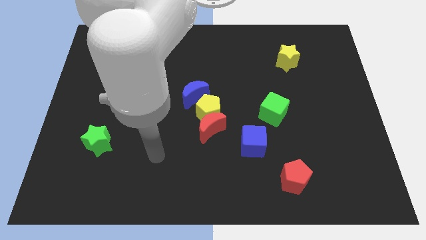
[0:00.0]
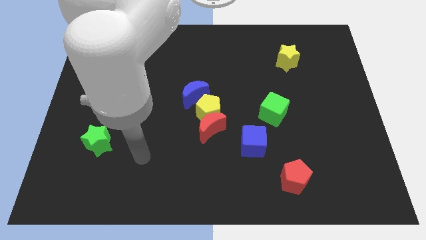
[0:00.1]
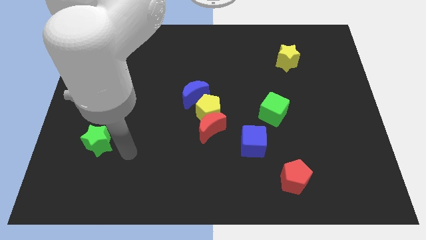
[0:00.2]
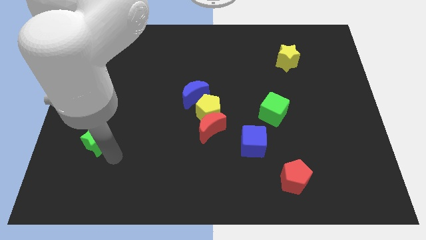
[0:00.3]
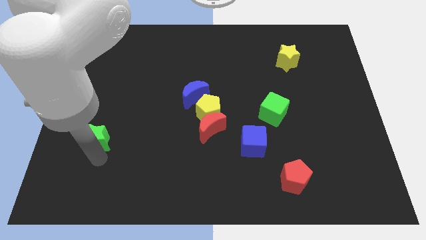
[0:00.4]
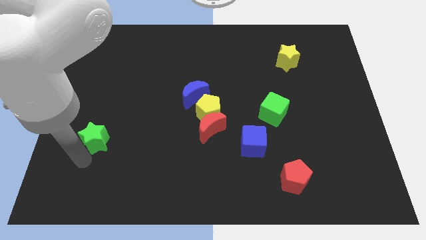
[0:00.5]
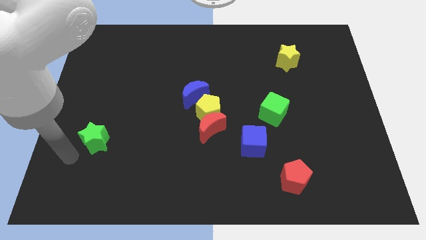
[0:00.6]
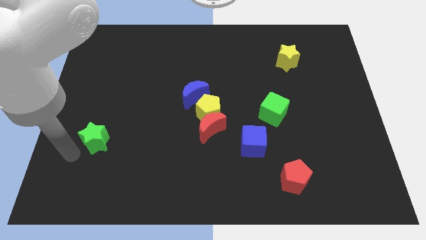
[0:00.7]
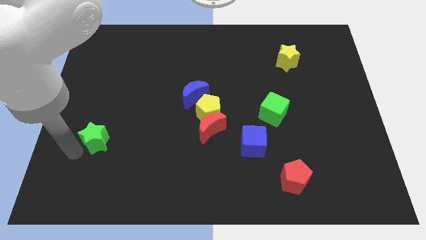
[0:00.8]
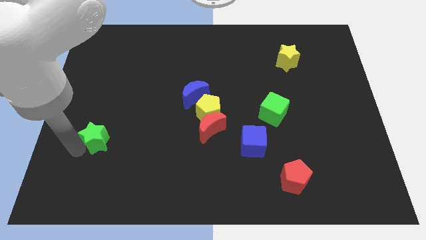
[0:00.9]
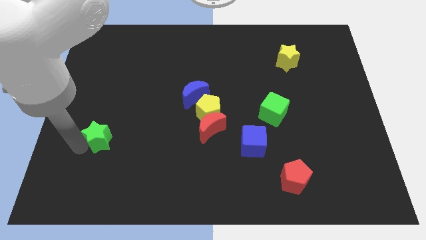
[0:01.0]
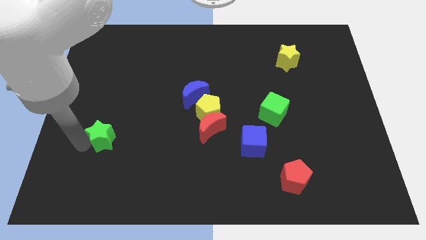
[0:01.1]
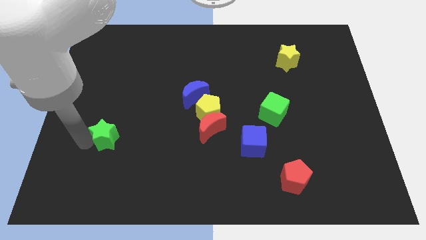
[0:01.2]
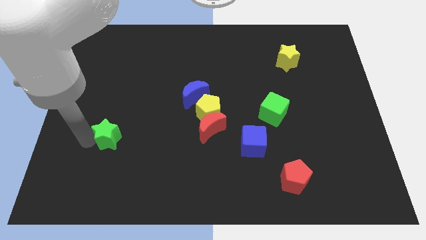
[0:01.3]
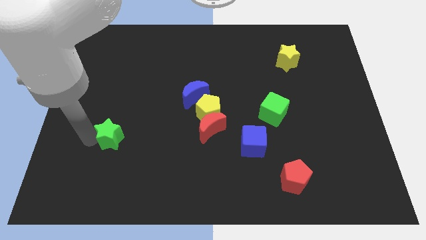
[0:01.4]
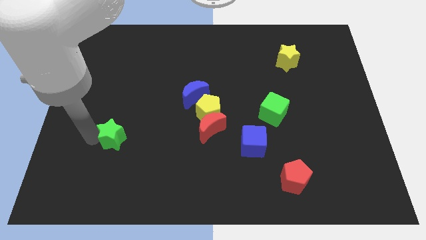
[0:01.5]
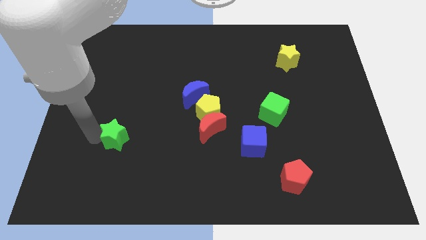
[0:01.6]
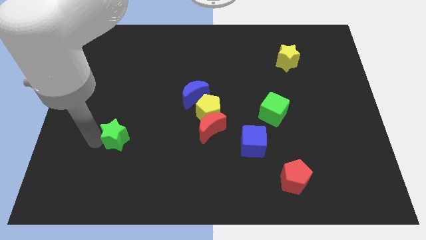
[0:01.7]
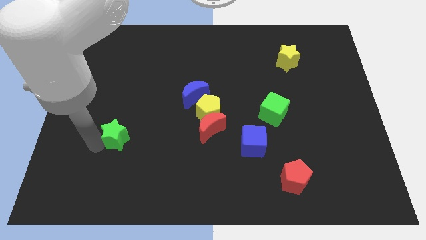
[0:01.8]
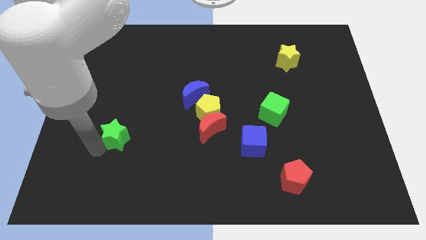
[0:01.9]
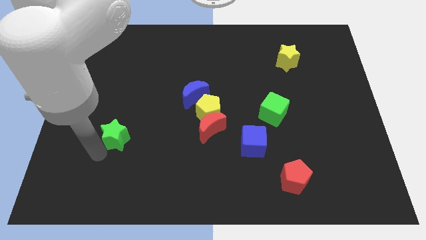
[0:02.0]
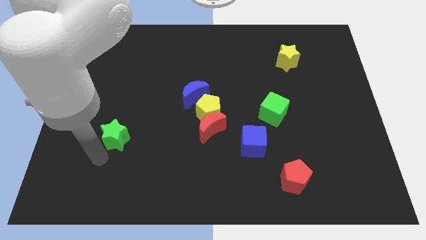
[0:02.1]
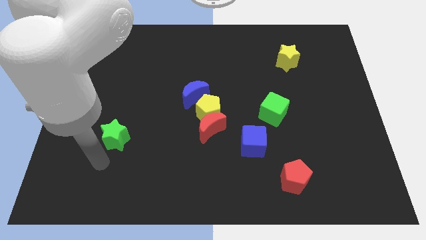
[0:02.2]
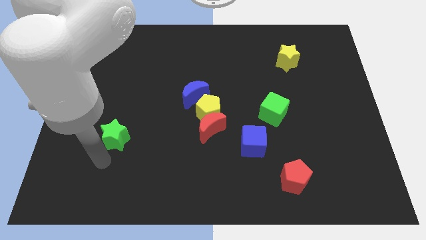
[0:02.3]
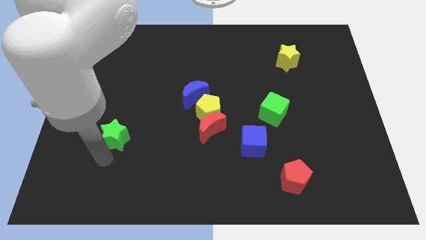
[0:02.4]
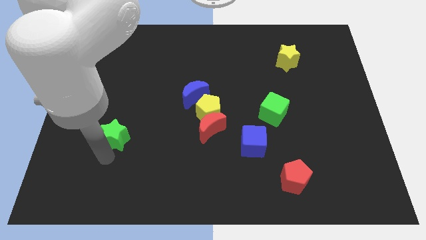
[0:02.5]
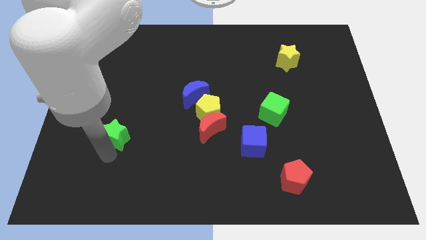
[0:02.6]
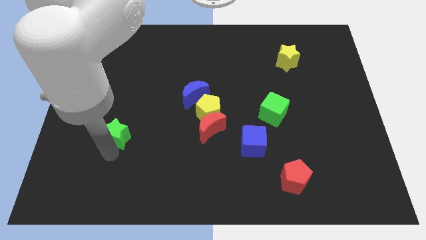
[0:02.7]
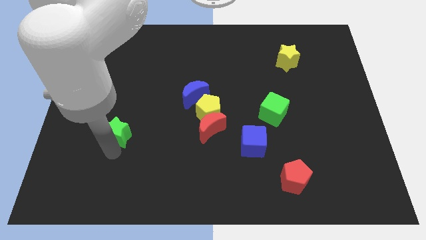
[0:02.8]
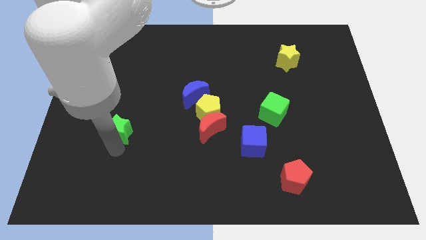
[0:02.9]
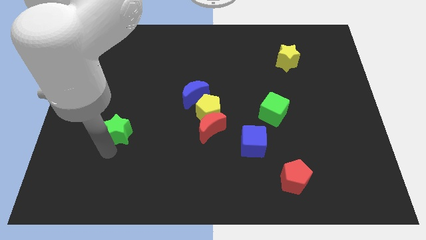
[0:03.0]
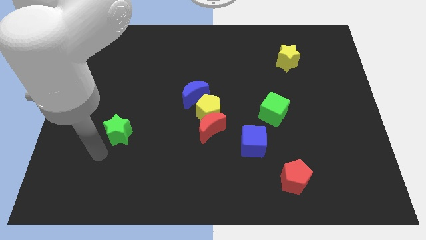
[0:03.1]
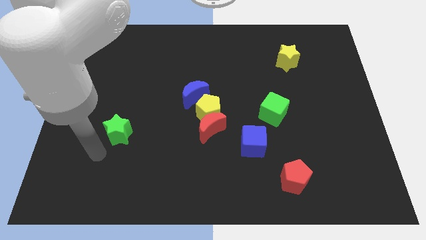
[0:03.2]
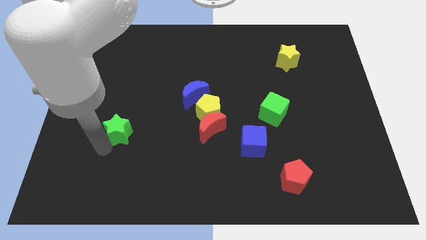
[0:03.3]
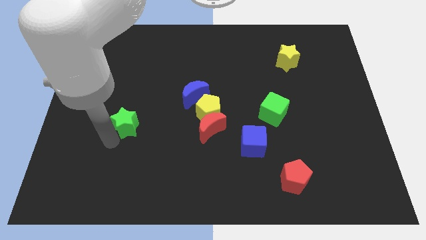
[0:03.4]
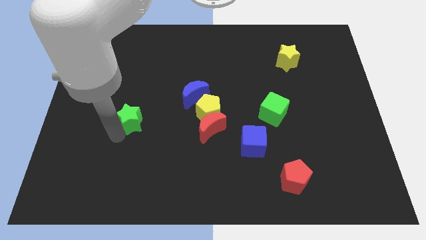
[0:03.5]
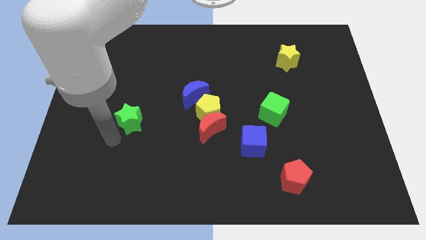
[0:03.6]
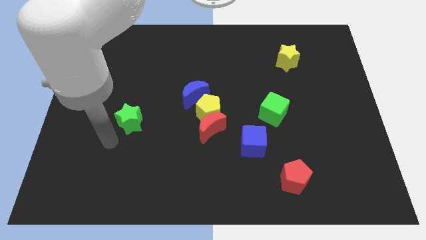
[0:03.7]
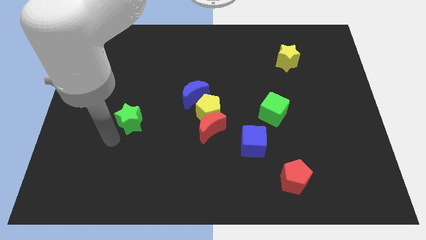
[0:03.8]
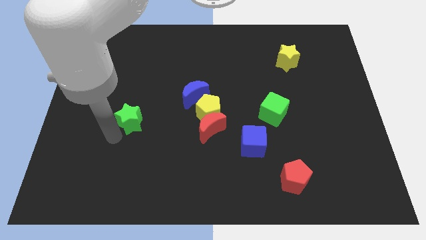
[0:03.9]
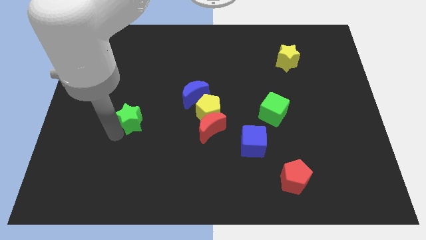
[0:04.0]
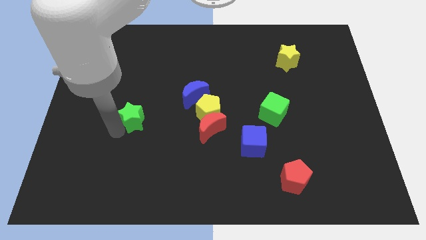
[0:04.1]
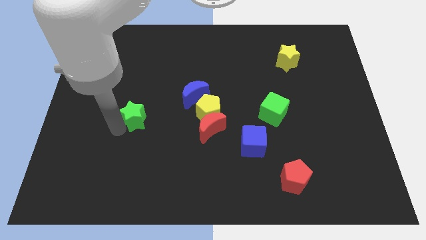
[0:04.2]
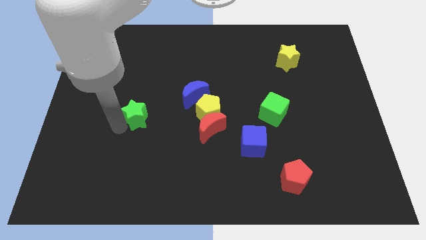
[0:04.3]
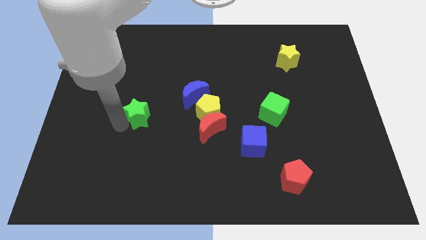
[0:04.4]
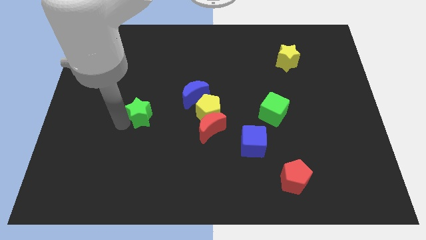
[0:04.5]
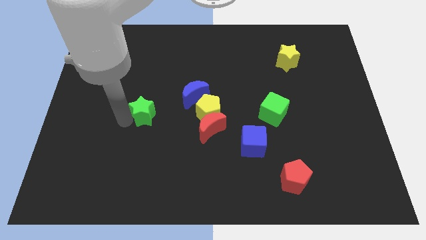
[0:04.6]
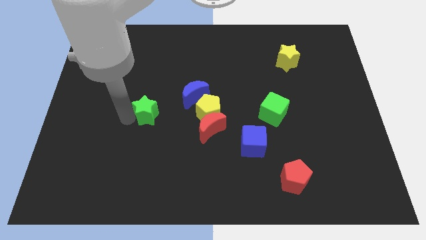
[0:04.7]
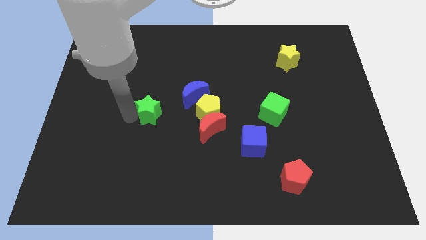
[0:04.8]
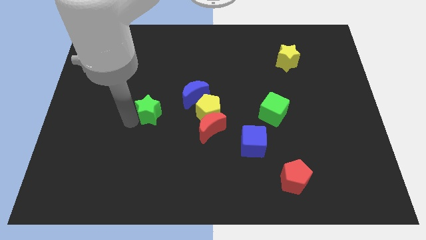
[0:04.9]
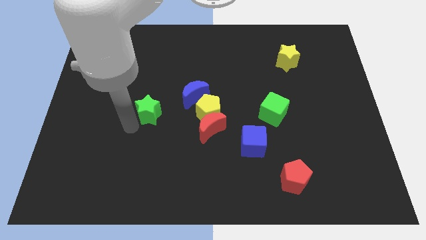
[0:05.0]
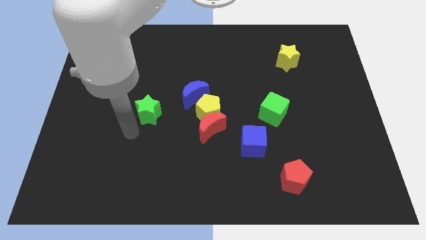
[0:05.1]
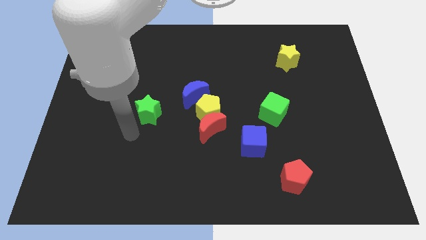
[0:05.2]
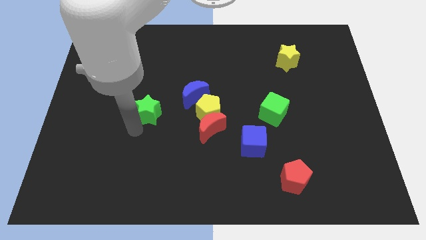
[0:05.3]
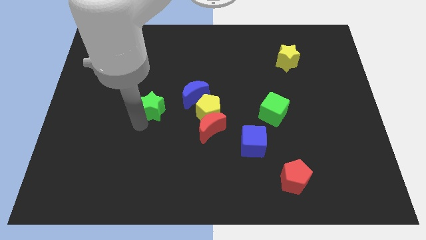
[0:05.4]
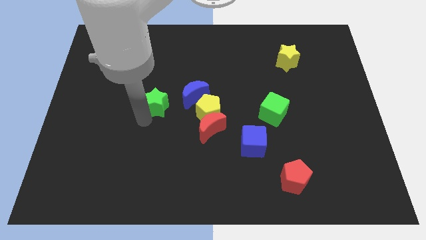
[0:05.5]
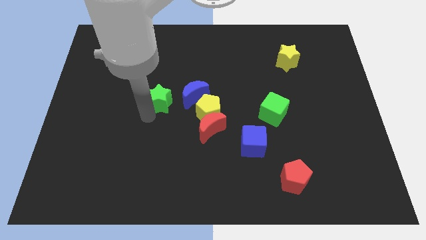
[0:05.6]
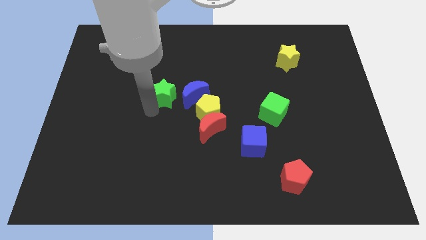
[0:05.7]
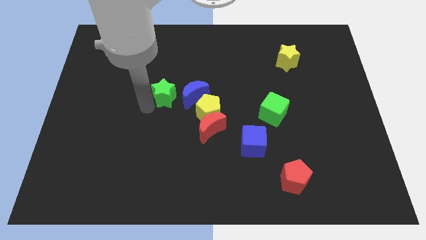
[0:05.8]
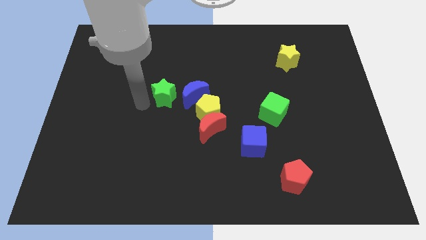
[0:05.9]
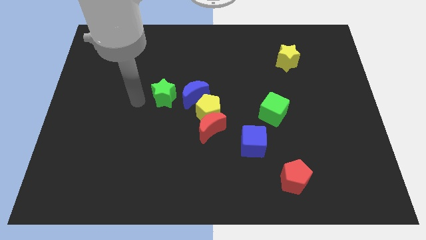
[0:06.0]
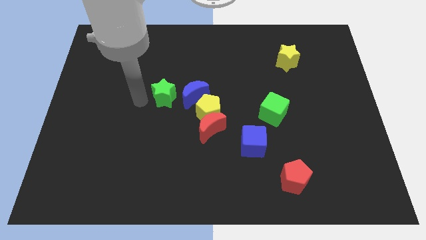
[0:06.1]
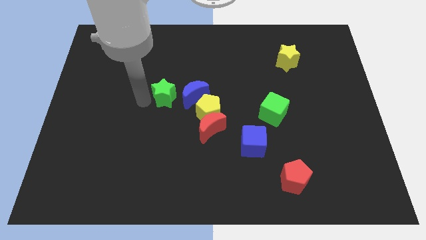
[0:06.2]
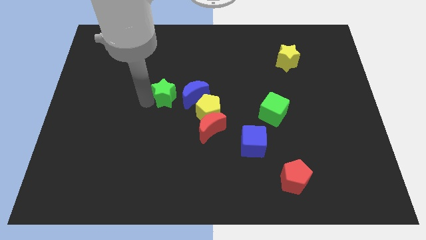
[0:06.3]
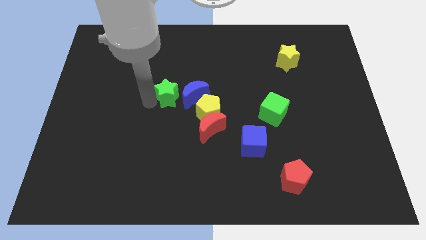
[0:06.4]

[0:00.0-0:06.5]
slide the green star diagonally up and to the left of the yellow pentagon

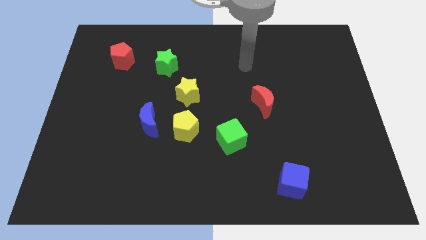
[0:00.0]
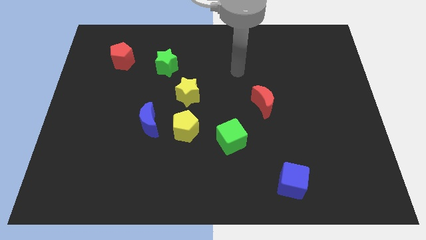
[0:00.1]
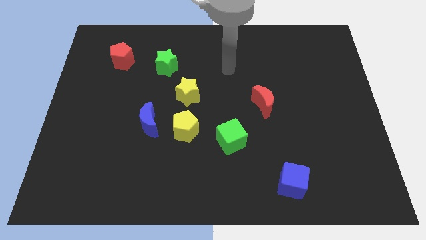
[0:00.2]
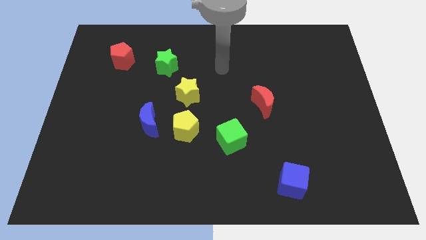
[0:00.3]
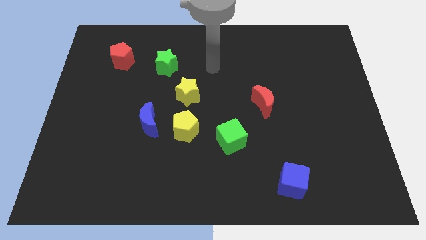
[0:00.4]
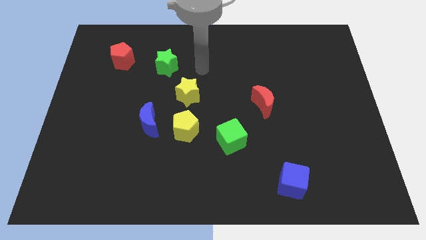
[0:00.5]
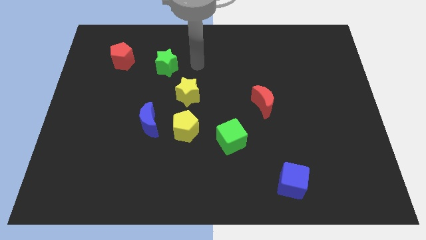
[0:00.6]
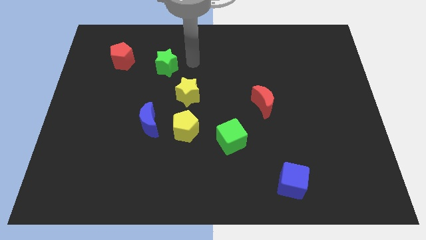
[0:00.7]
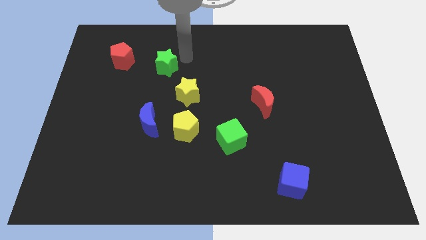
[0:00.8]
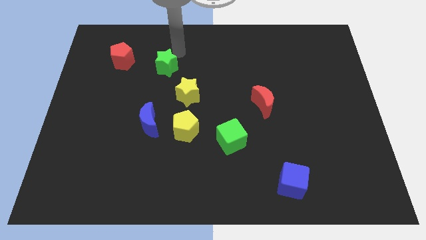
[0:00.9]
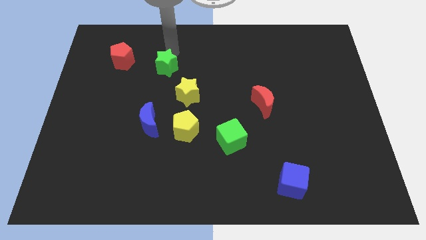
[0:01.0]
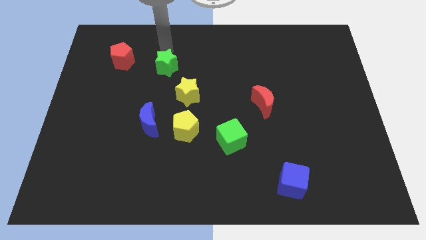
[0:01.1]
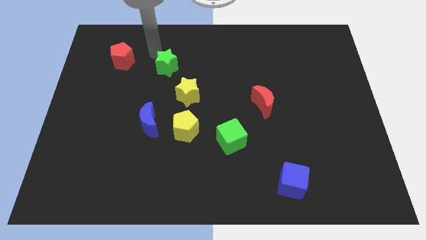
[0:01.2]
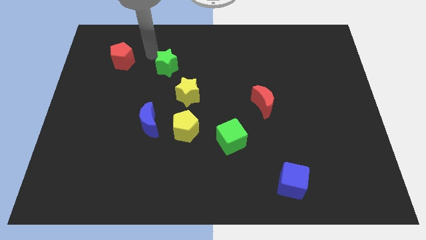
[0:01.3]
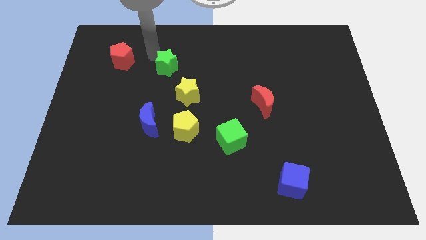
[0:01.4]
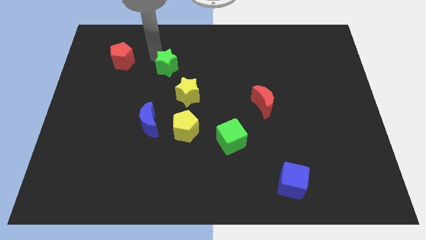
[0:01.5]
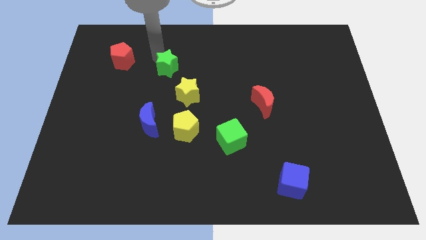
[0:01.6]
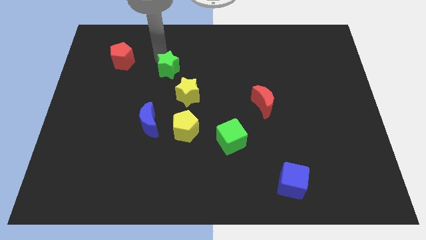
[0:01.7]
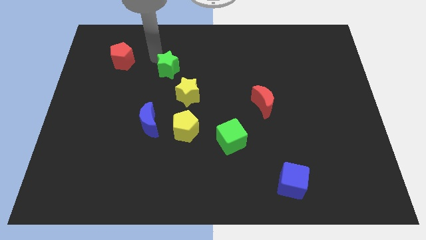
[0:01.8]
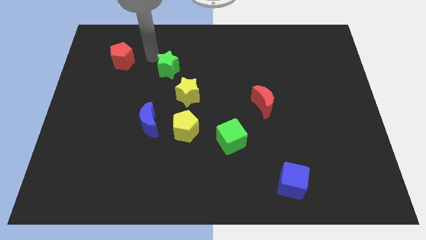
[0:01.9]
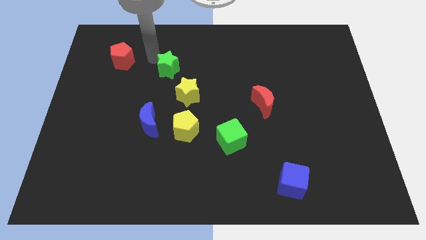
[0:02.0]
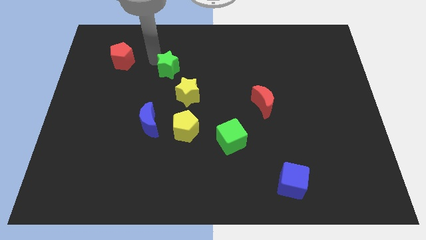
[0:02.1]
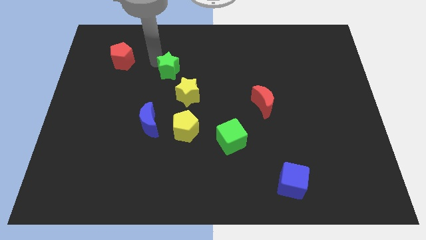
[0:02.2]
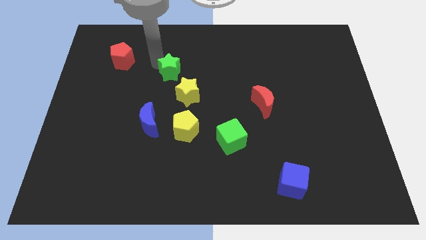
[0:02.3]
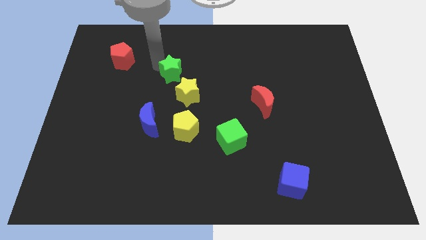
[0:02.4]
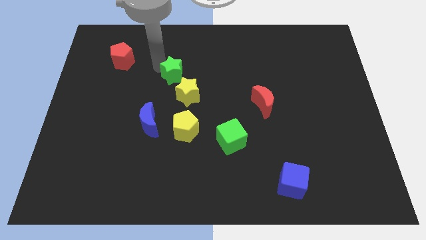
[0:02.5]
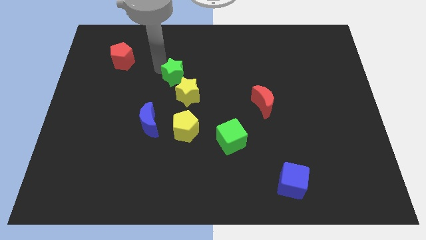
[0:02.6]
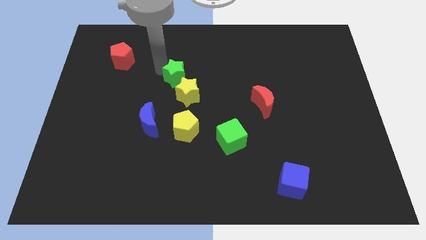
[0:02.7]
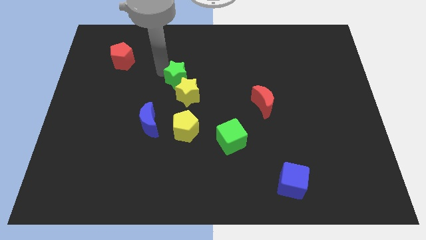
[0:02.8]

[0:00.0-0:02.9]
move the green star to the top of the yellow pentagon
